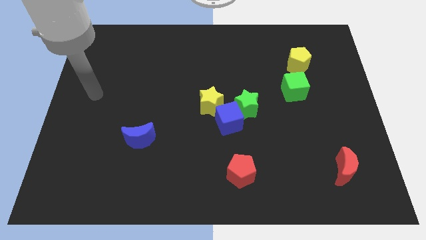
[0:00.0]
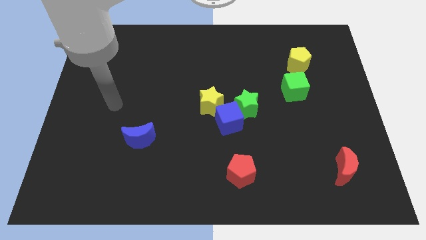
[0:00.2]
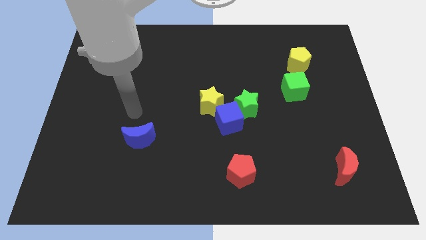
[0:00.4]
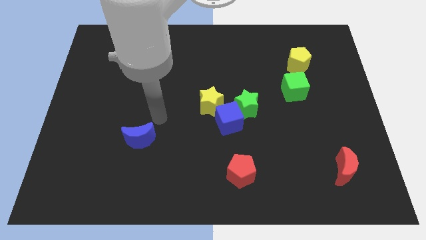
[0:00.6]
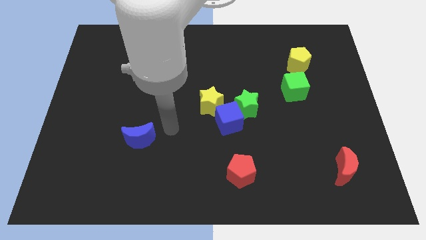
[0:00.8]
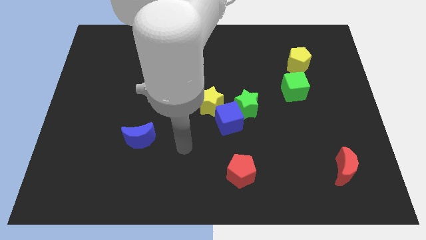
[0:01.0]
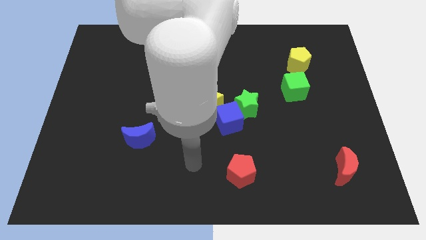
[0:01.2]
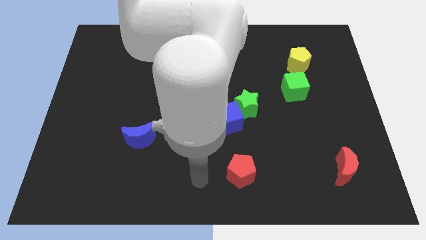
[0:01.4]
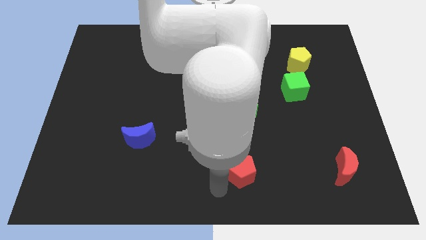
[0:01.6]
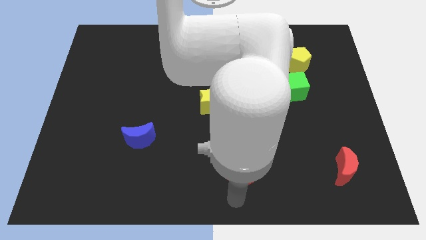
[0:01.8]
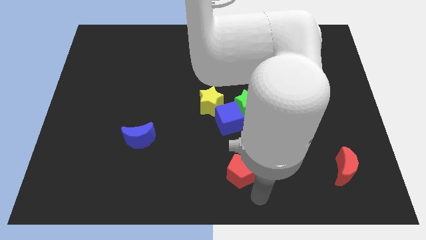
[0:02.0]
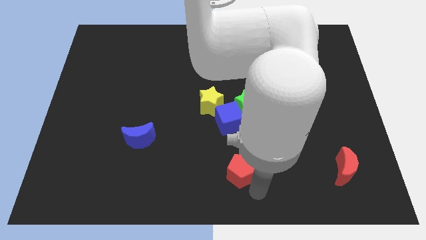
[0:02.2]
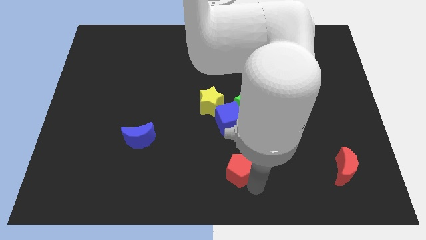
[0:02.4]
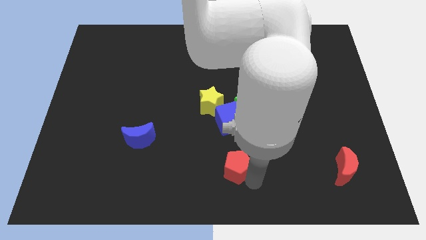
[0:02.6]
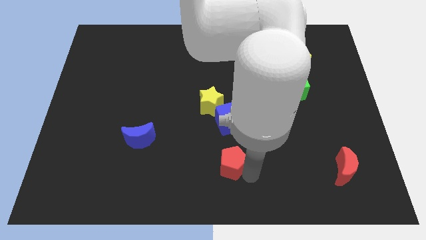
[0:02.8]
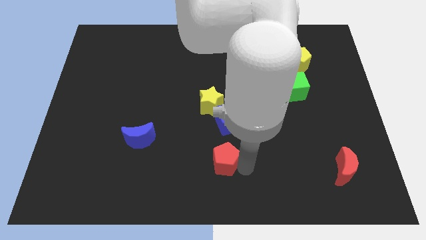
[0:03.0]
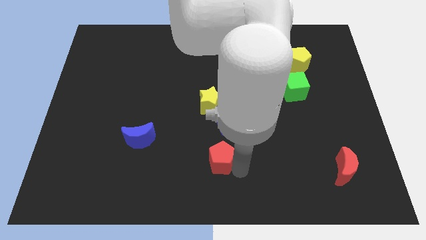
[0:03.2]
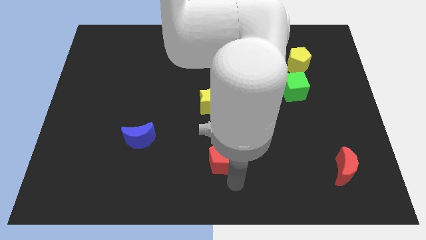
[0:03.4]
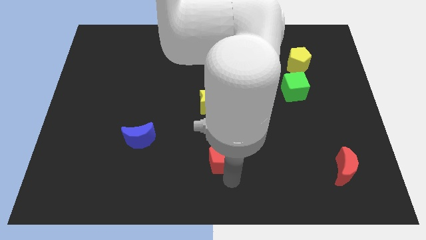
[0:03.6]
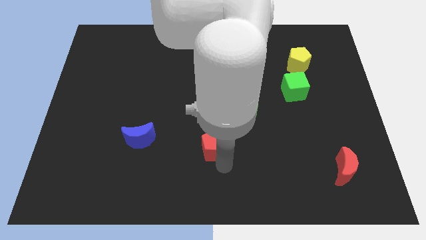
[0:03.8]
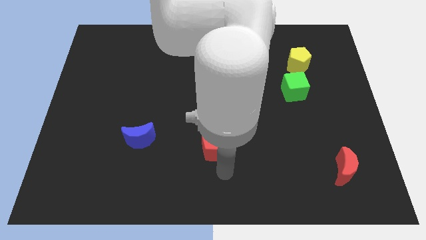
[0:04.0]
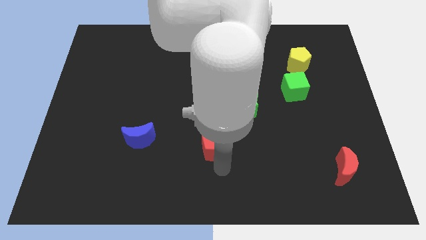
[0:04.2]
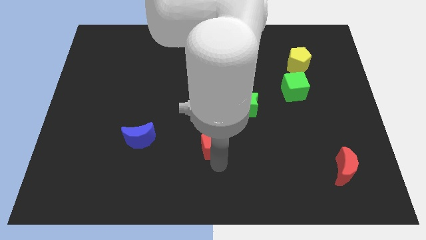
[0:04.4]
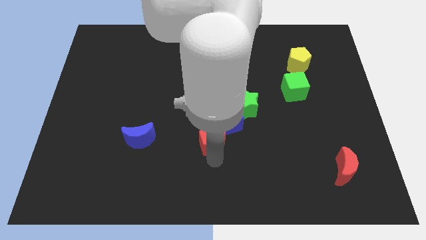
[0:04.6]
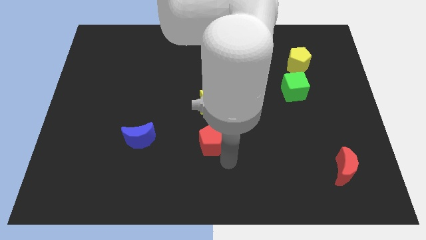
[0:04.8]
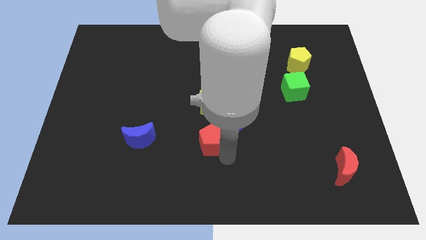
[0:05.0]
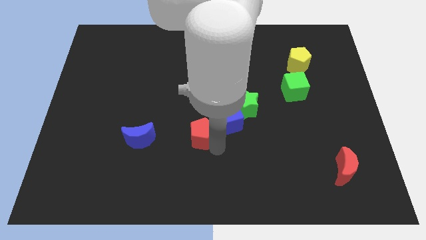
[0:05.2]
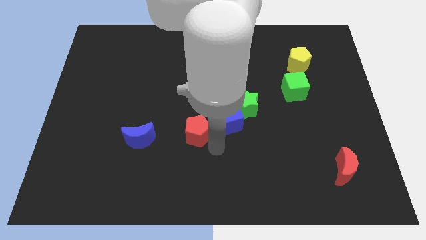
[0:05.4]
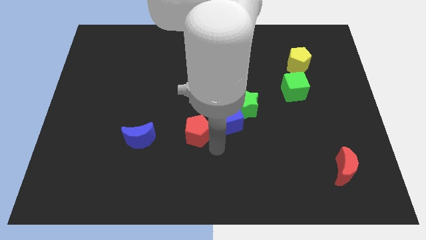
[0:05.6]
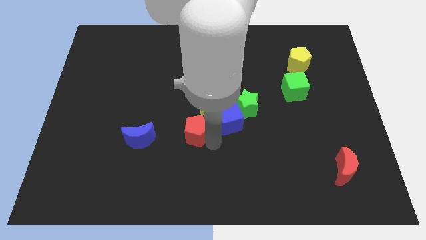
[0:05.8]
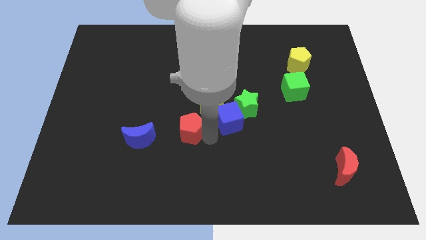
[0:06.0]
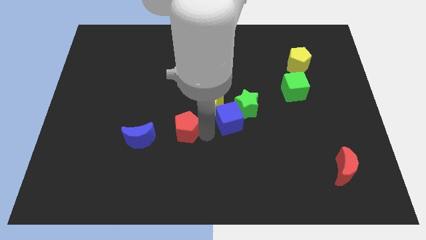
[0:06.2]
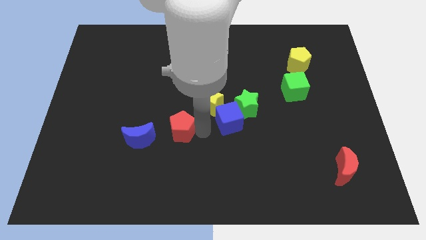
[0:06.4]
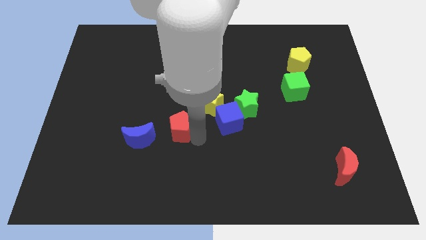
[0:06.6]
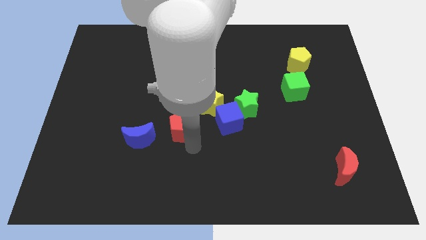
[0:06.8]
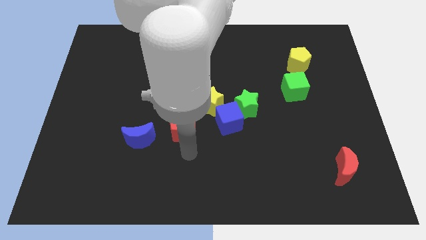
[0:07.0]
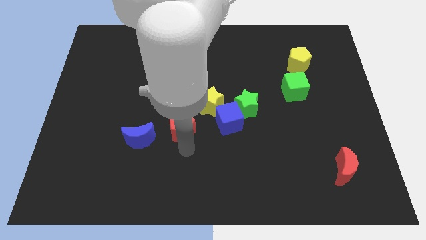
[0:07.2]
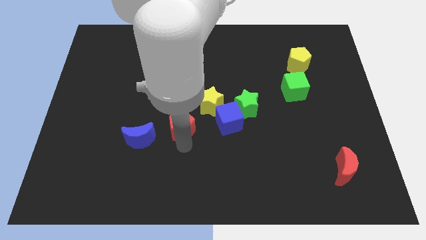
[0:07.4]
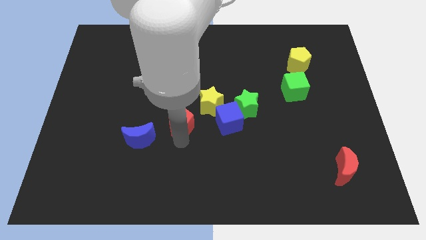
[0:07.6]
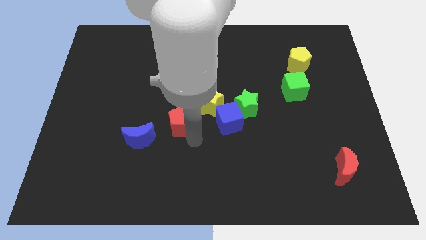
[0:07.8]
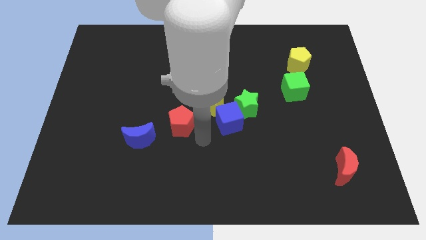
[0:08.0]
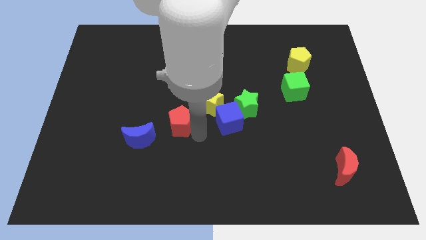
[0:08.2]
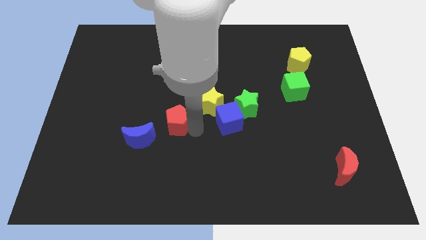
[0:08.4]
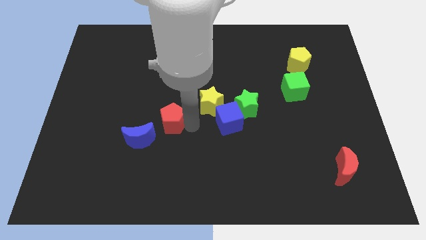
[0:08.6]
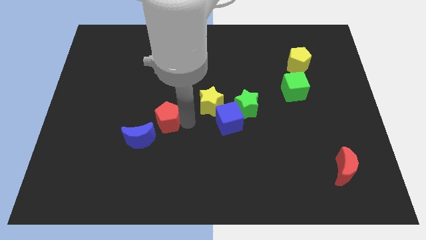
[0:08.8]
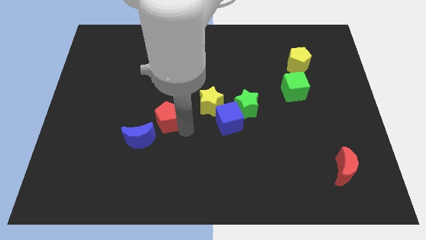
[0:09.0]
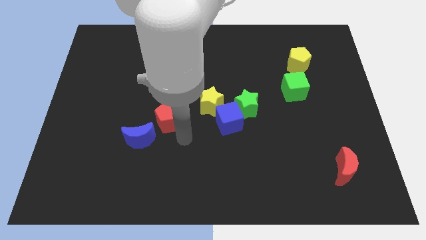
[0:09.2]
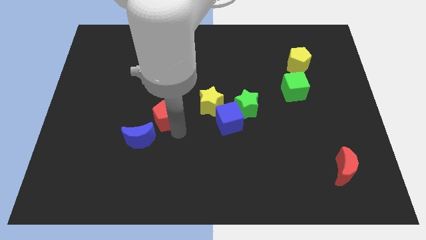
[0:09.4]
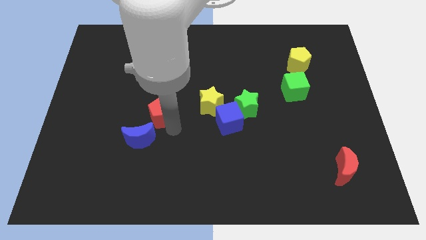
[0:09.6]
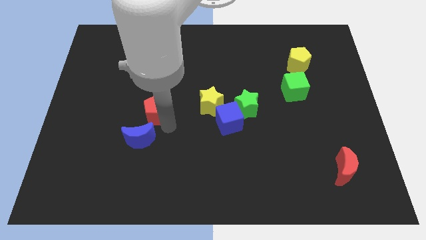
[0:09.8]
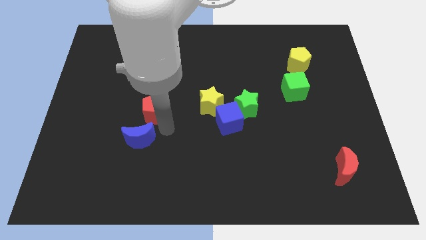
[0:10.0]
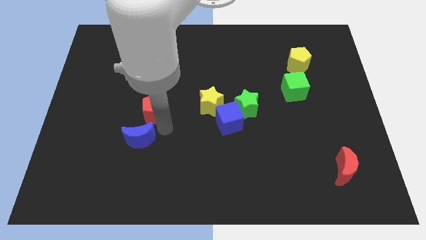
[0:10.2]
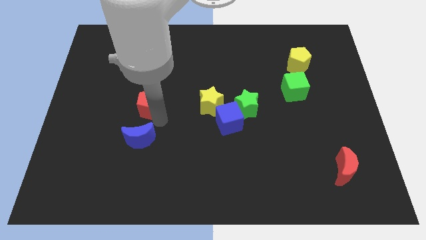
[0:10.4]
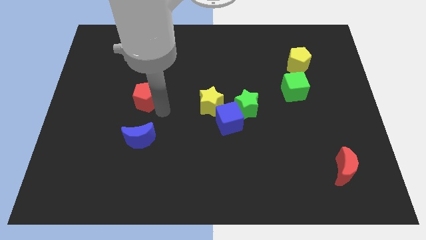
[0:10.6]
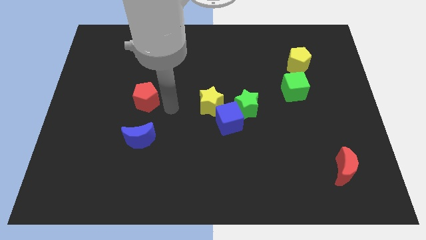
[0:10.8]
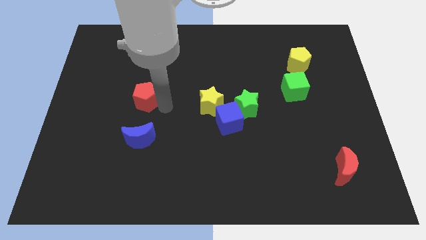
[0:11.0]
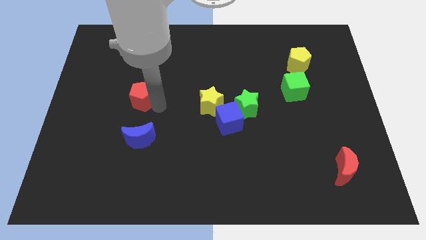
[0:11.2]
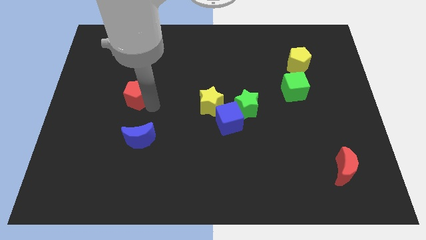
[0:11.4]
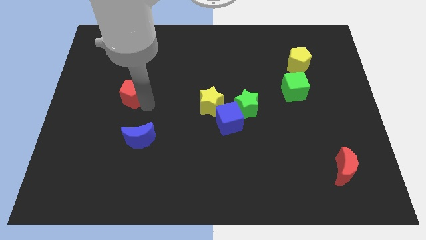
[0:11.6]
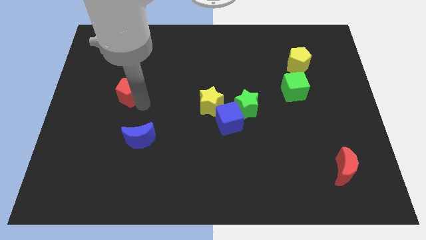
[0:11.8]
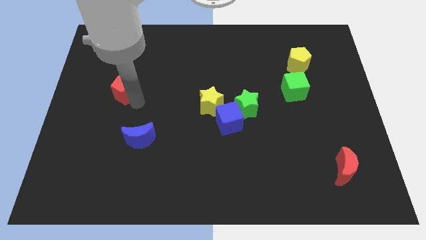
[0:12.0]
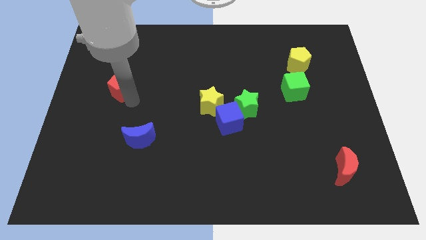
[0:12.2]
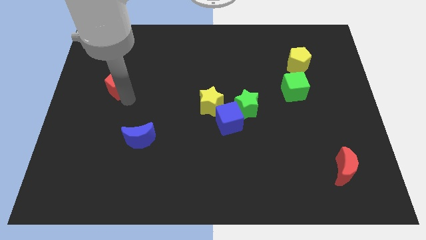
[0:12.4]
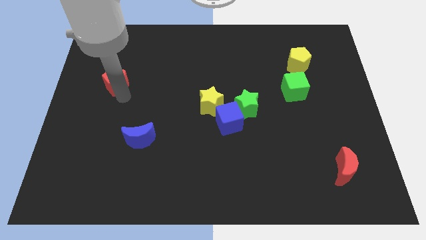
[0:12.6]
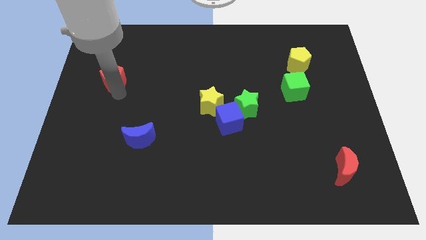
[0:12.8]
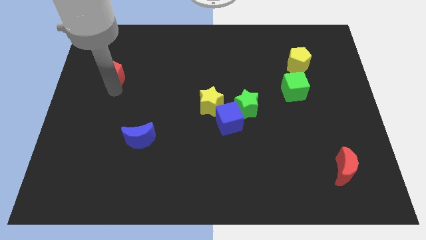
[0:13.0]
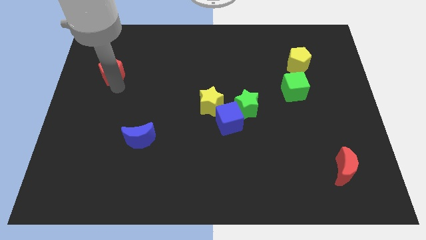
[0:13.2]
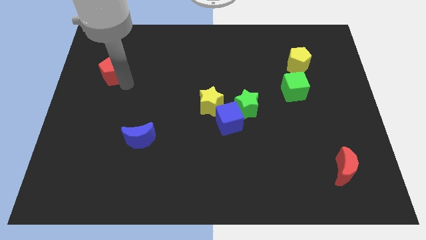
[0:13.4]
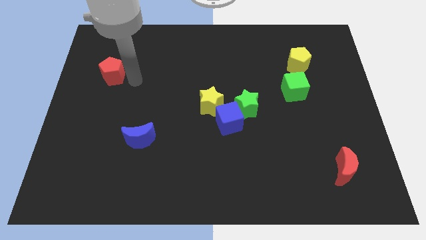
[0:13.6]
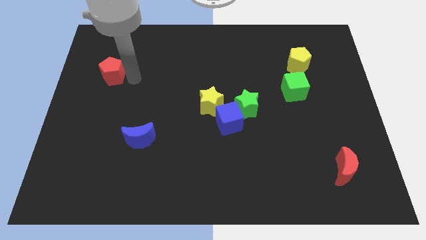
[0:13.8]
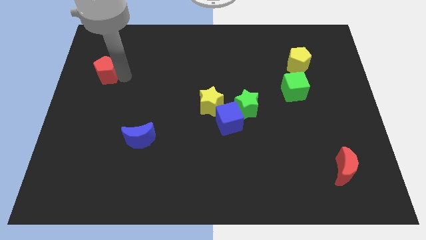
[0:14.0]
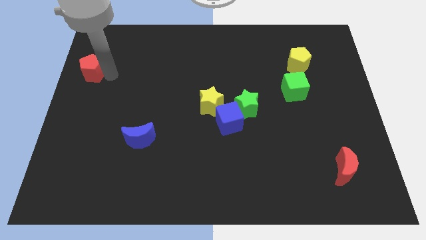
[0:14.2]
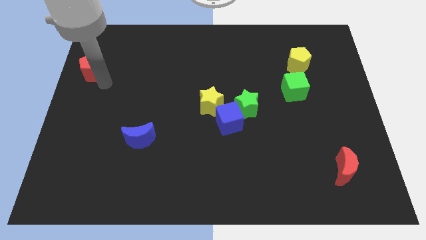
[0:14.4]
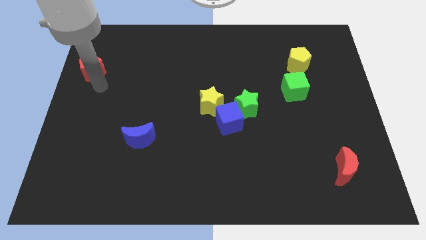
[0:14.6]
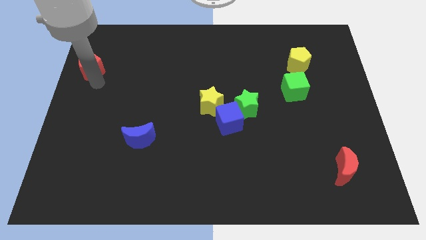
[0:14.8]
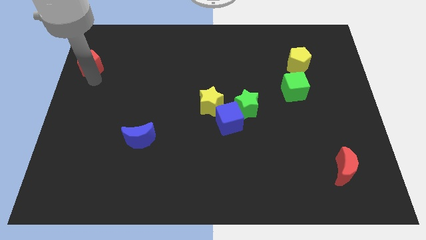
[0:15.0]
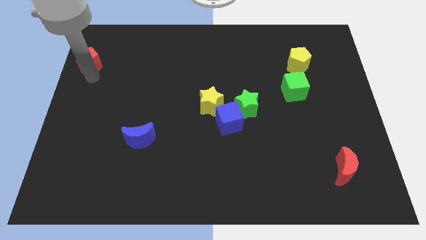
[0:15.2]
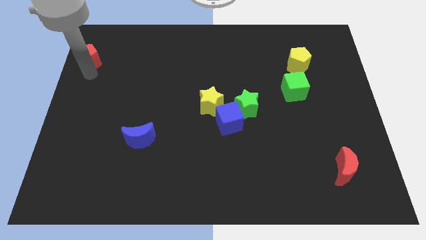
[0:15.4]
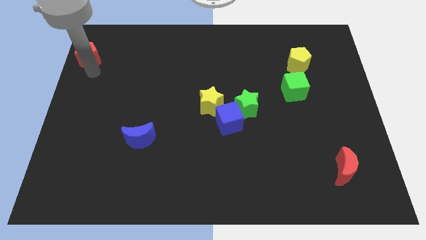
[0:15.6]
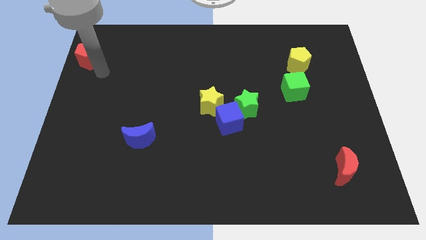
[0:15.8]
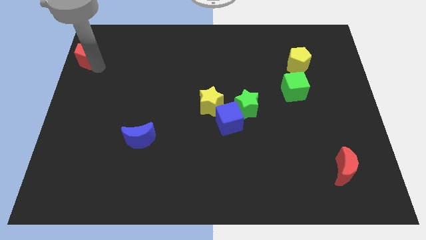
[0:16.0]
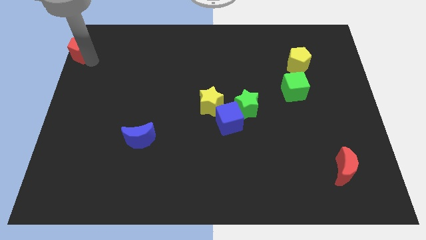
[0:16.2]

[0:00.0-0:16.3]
move the red pentagon to the top left of the board
